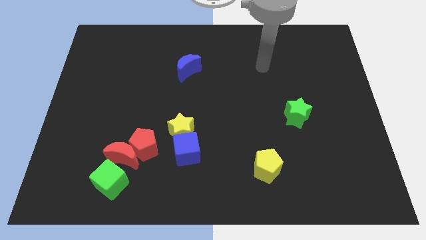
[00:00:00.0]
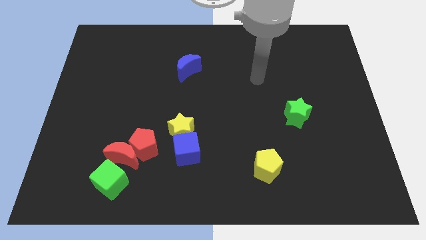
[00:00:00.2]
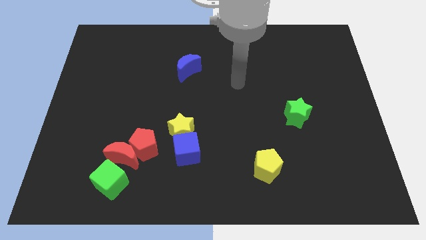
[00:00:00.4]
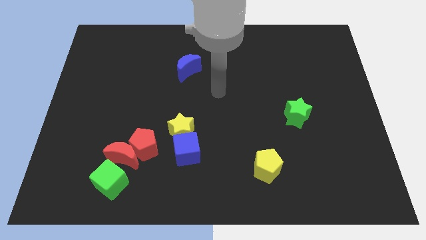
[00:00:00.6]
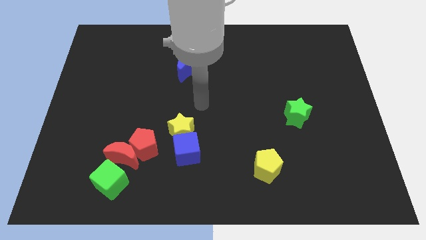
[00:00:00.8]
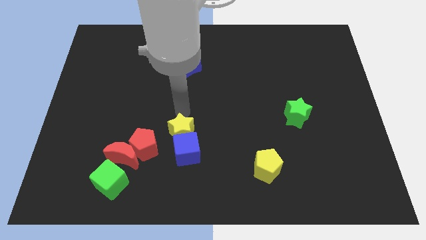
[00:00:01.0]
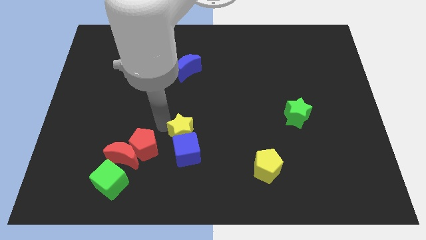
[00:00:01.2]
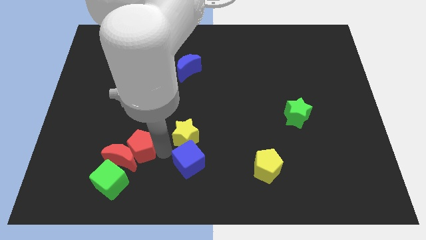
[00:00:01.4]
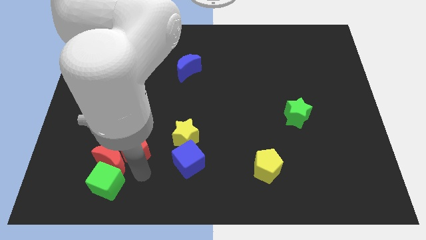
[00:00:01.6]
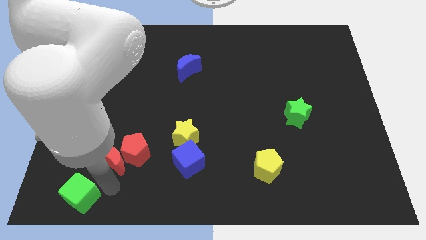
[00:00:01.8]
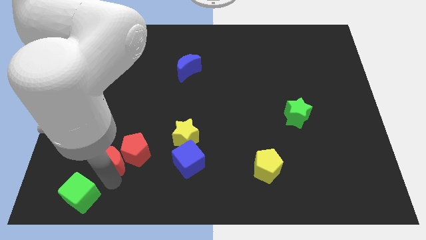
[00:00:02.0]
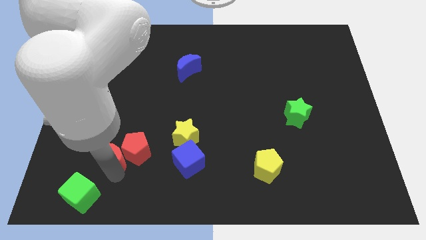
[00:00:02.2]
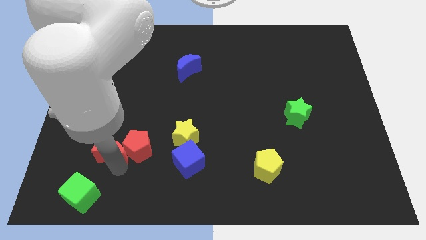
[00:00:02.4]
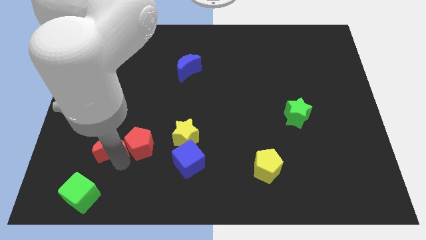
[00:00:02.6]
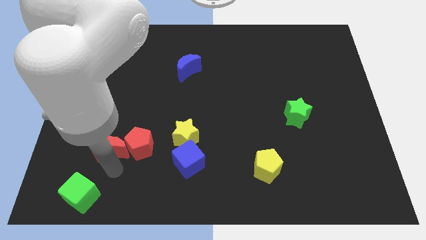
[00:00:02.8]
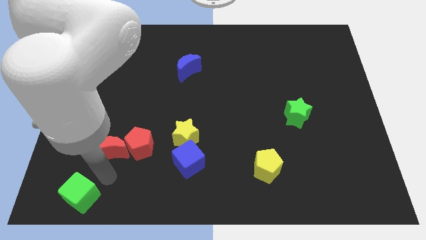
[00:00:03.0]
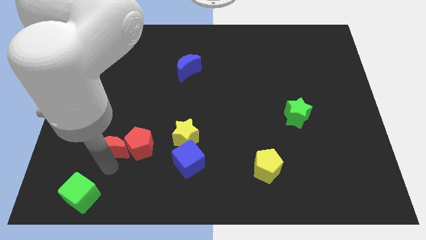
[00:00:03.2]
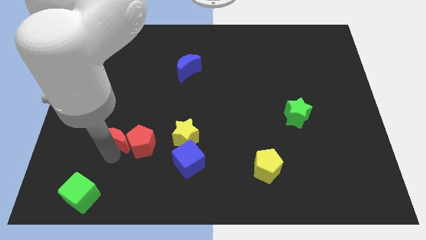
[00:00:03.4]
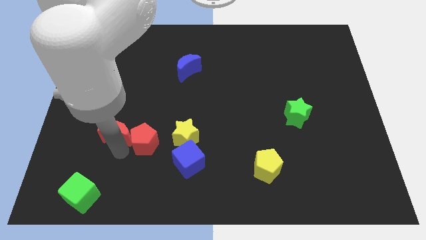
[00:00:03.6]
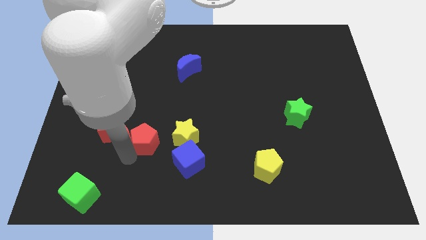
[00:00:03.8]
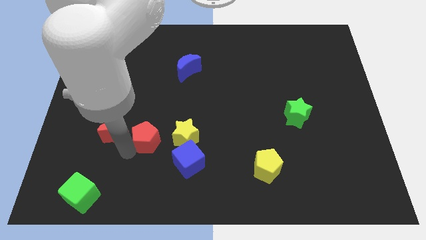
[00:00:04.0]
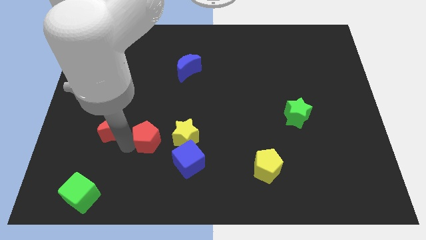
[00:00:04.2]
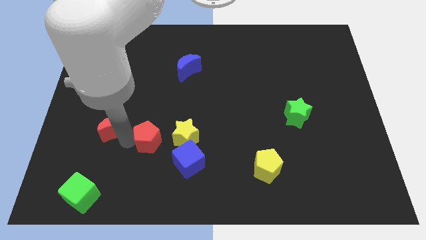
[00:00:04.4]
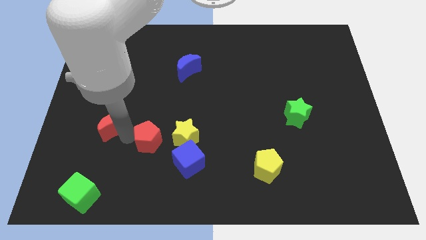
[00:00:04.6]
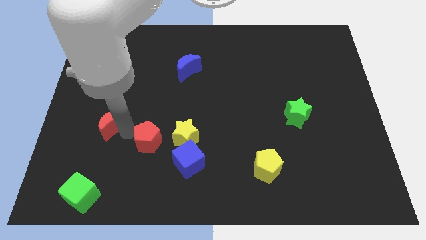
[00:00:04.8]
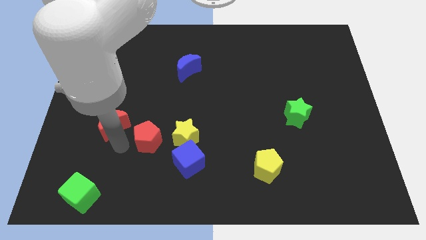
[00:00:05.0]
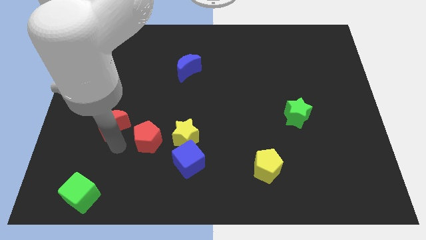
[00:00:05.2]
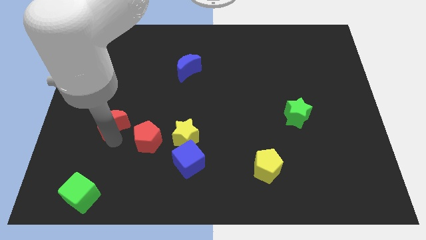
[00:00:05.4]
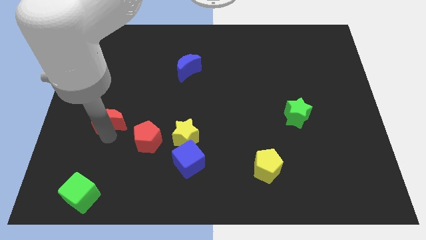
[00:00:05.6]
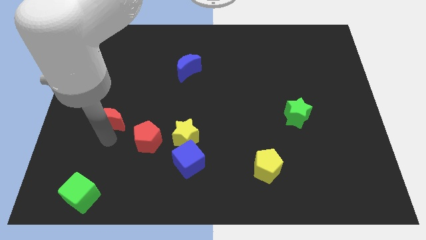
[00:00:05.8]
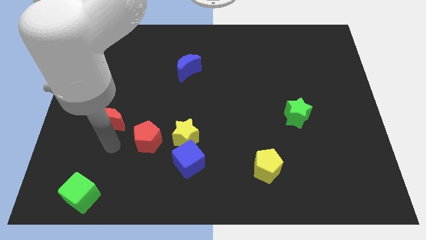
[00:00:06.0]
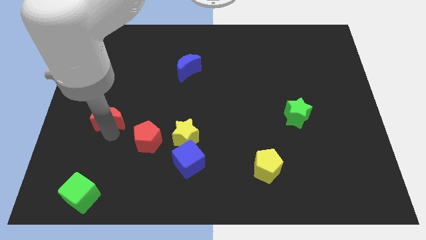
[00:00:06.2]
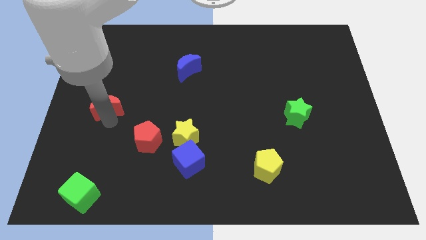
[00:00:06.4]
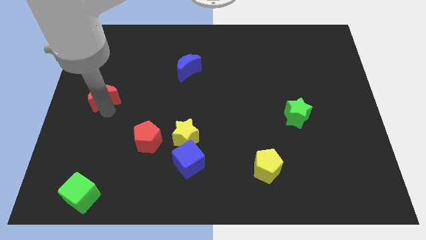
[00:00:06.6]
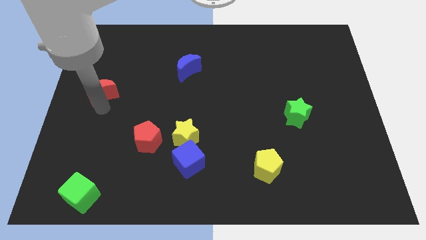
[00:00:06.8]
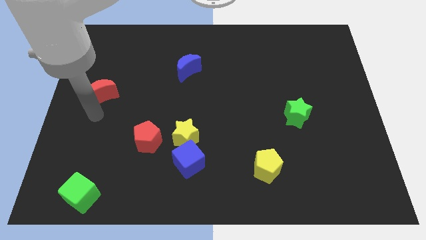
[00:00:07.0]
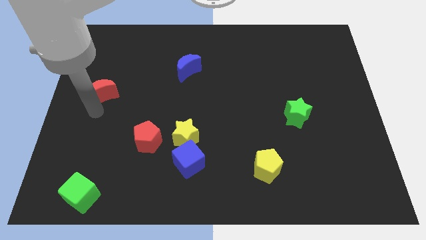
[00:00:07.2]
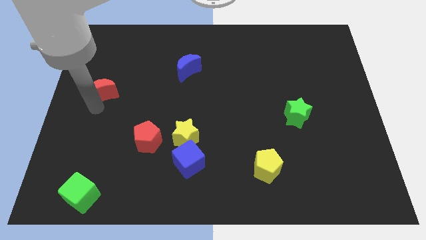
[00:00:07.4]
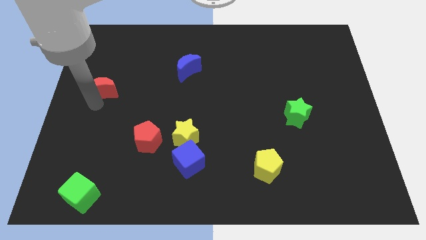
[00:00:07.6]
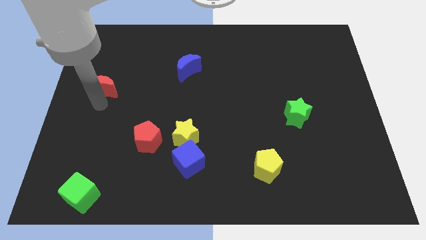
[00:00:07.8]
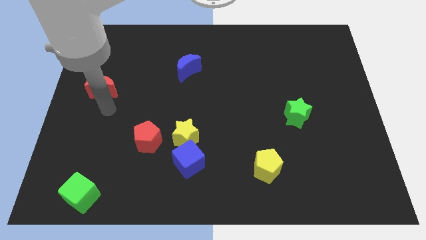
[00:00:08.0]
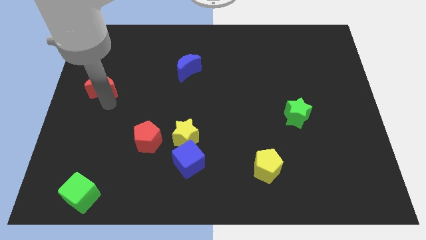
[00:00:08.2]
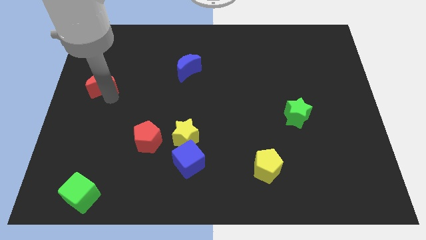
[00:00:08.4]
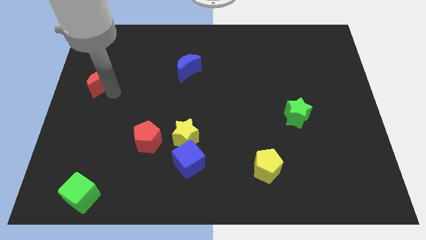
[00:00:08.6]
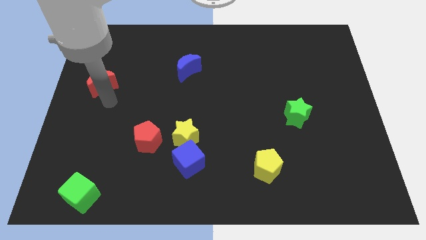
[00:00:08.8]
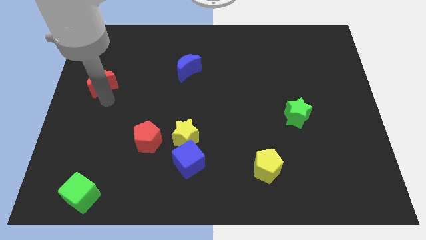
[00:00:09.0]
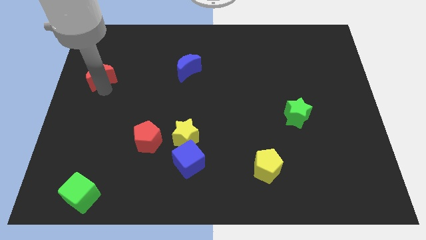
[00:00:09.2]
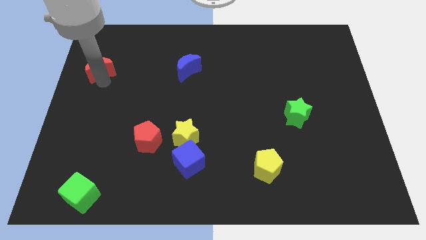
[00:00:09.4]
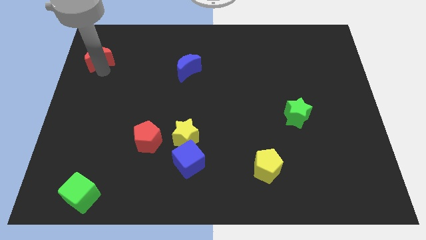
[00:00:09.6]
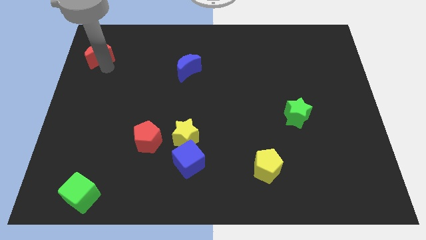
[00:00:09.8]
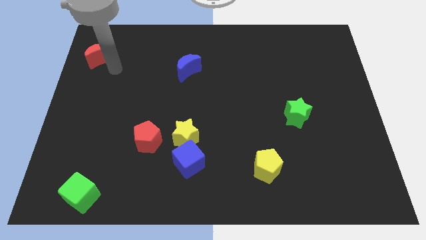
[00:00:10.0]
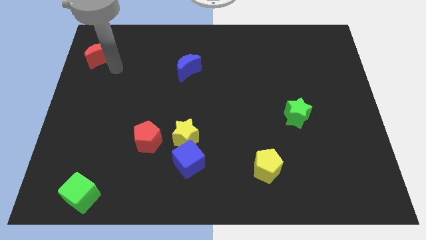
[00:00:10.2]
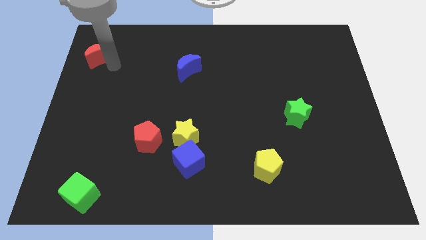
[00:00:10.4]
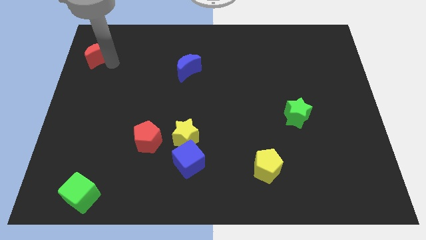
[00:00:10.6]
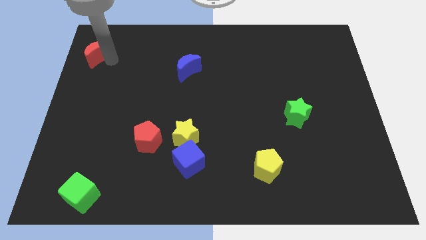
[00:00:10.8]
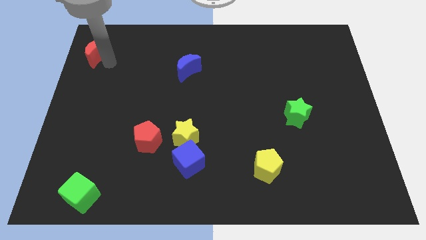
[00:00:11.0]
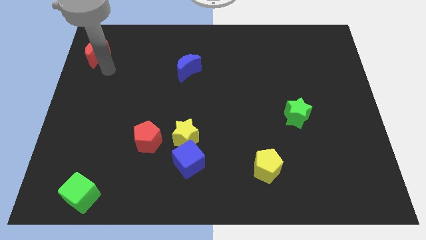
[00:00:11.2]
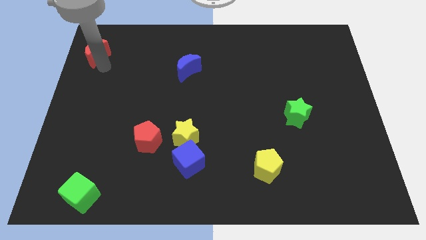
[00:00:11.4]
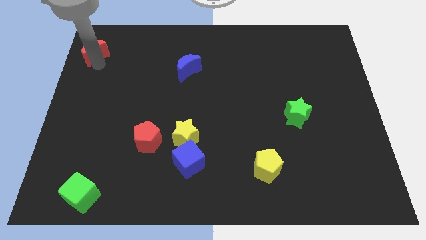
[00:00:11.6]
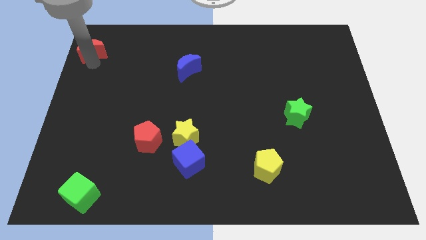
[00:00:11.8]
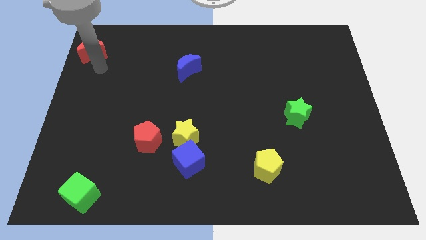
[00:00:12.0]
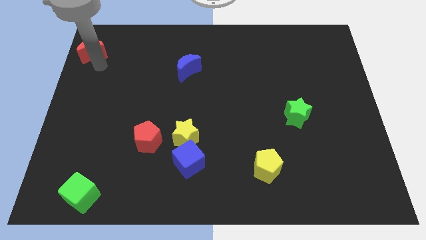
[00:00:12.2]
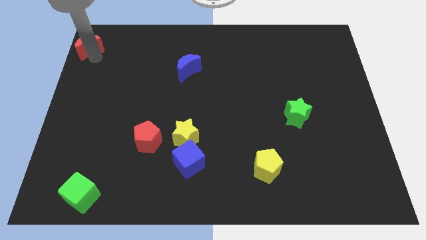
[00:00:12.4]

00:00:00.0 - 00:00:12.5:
move the red moon to the top left of the board
